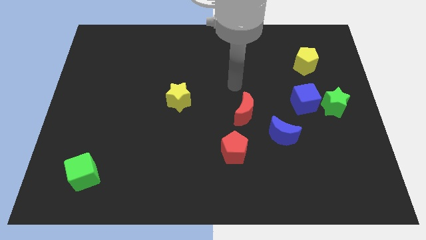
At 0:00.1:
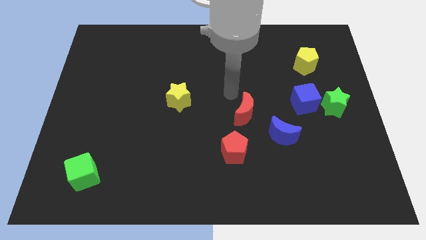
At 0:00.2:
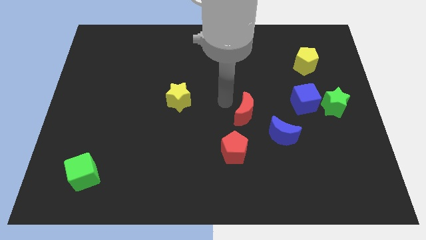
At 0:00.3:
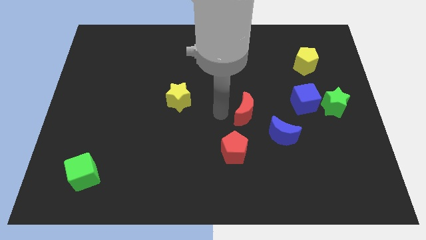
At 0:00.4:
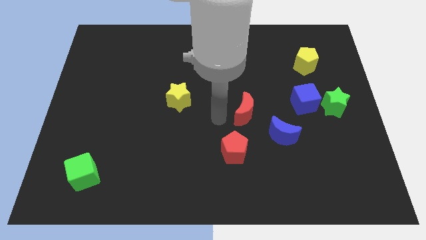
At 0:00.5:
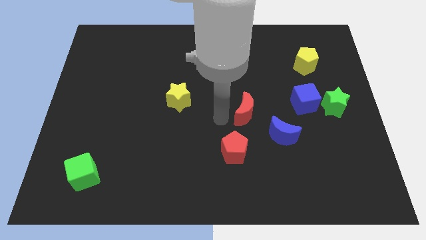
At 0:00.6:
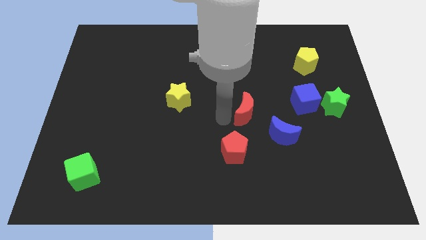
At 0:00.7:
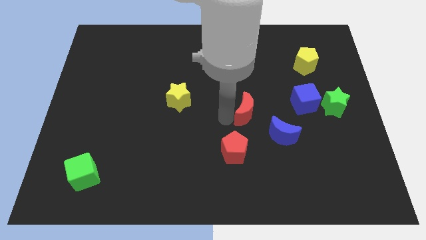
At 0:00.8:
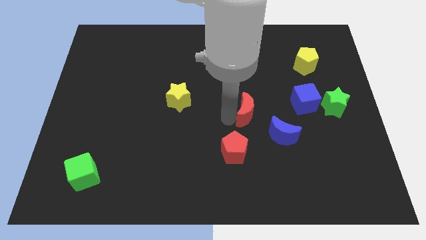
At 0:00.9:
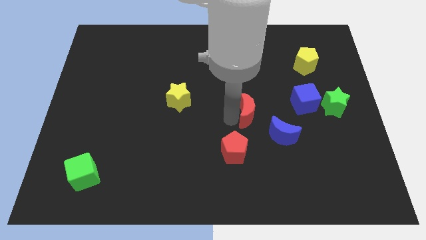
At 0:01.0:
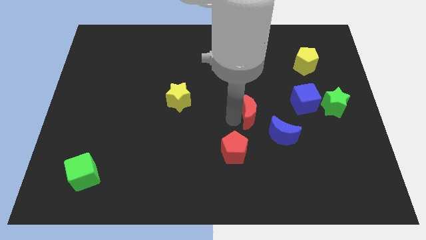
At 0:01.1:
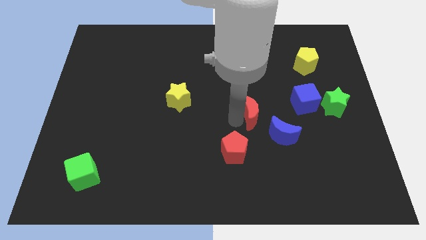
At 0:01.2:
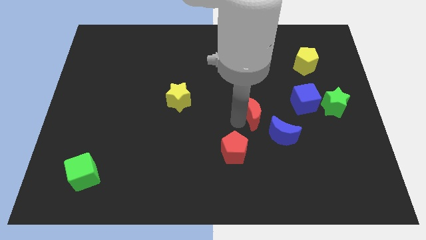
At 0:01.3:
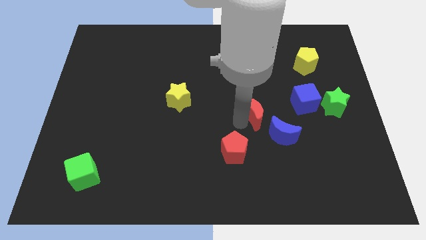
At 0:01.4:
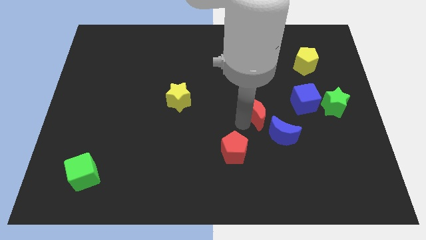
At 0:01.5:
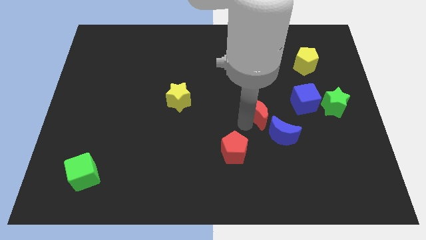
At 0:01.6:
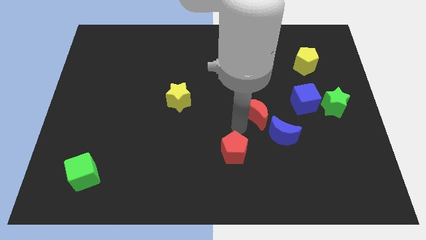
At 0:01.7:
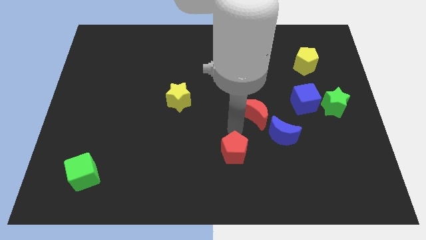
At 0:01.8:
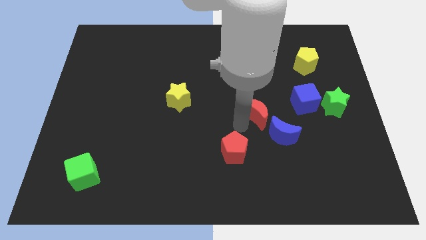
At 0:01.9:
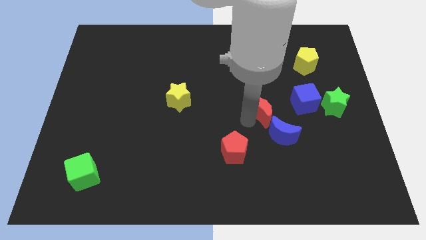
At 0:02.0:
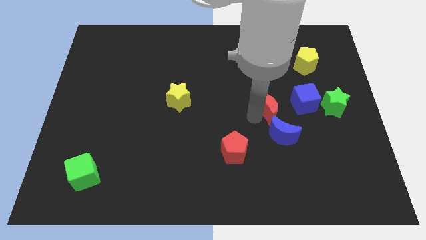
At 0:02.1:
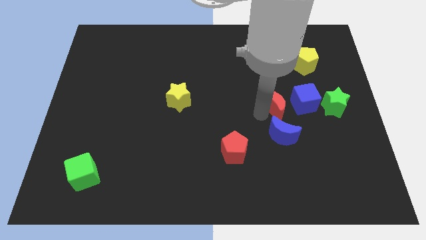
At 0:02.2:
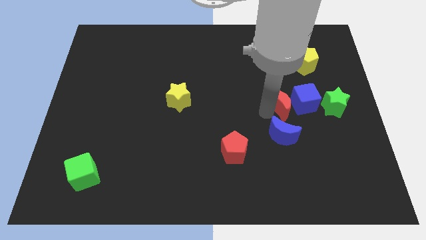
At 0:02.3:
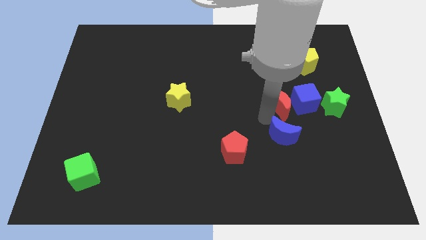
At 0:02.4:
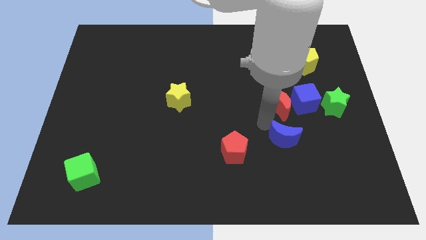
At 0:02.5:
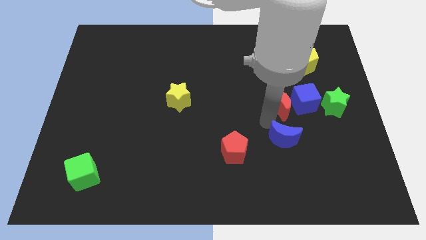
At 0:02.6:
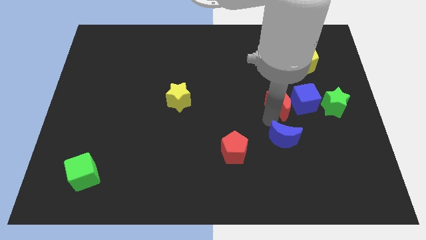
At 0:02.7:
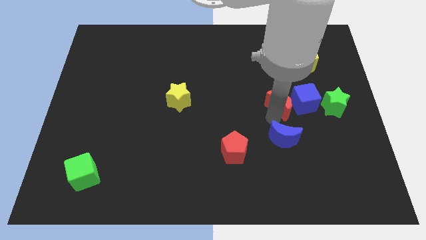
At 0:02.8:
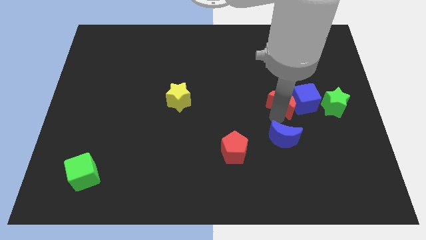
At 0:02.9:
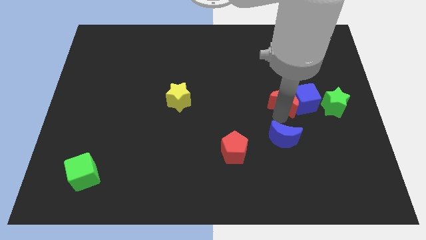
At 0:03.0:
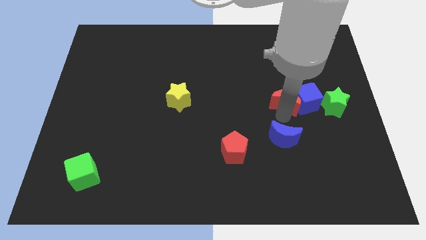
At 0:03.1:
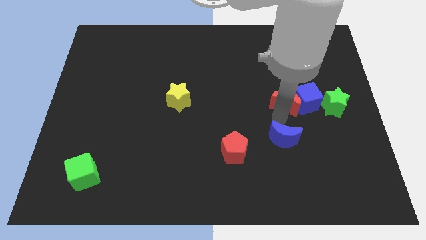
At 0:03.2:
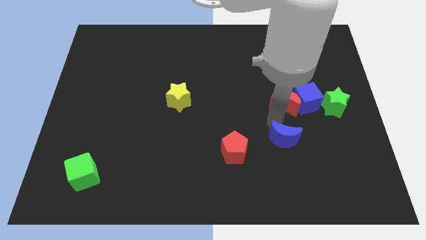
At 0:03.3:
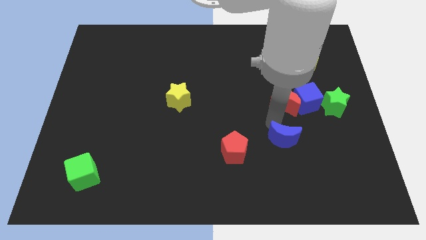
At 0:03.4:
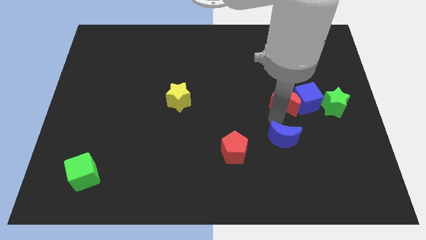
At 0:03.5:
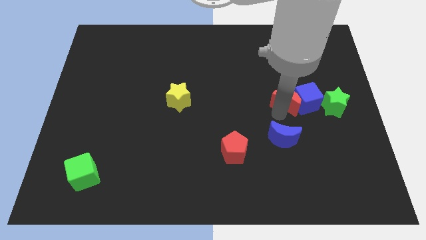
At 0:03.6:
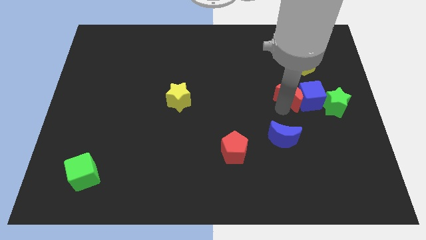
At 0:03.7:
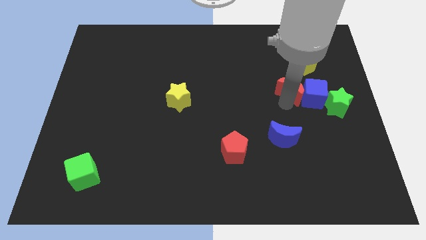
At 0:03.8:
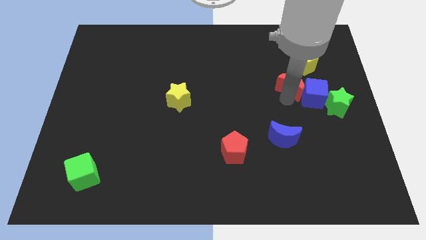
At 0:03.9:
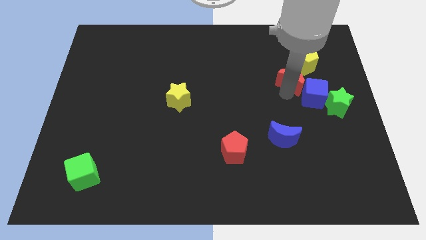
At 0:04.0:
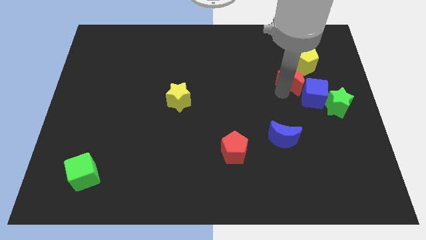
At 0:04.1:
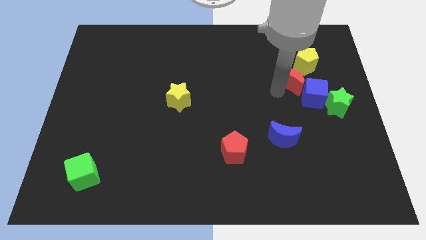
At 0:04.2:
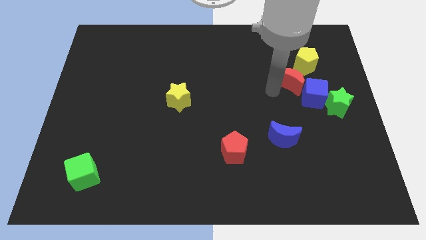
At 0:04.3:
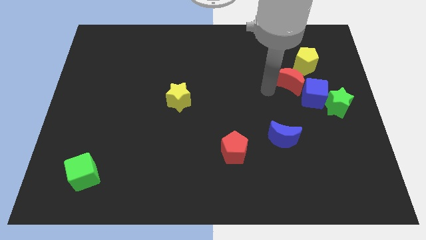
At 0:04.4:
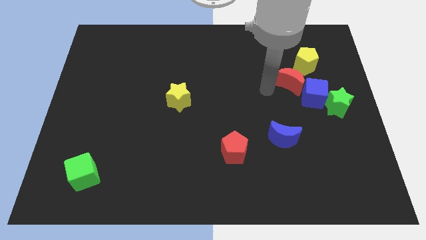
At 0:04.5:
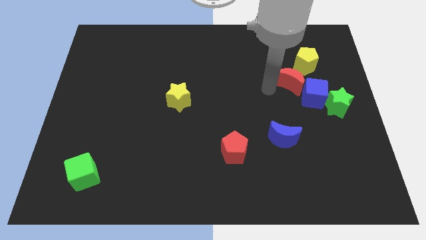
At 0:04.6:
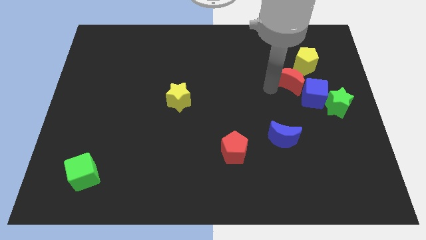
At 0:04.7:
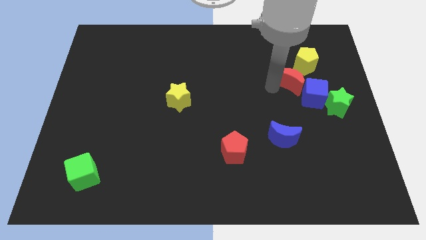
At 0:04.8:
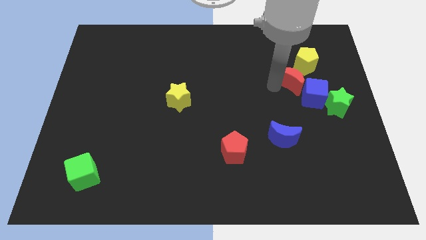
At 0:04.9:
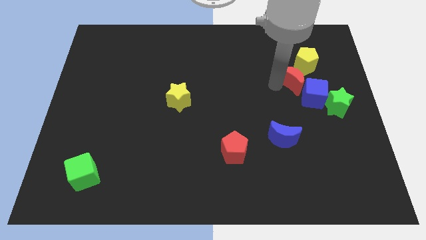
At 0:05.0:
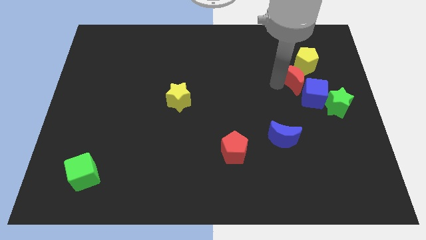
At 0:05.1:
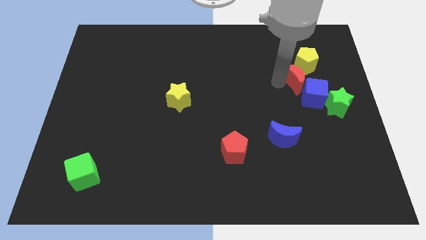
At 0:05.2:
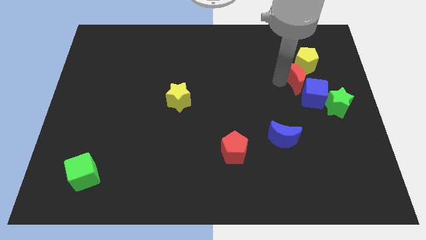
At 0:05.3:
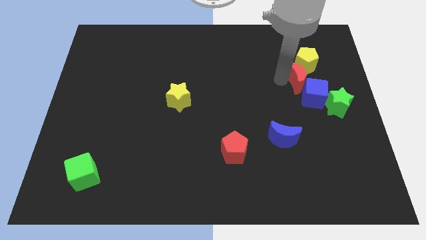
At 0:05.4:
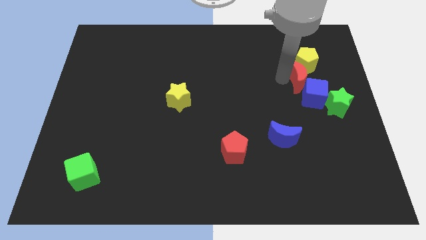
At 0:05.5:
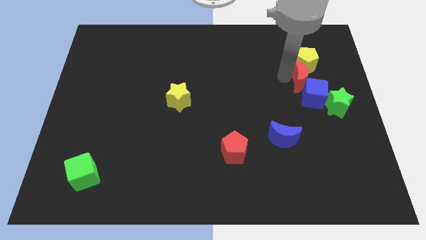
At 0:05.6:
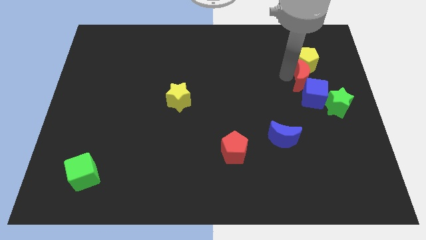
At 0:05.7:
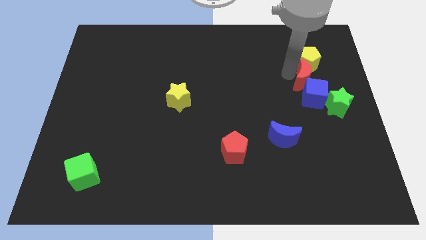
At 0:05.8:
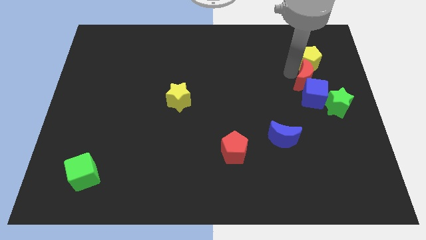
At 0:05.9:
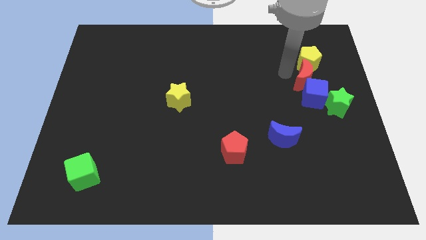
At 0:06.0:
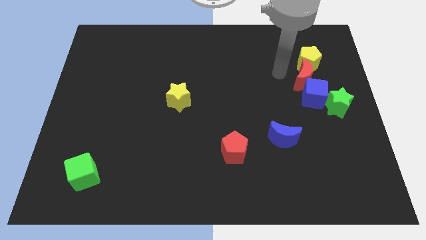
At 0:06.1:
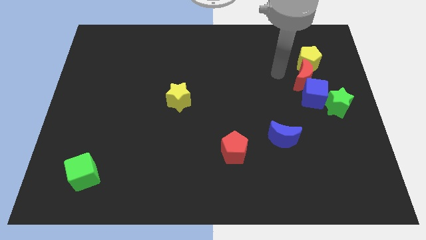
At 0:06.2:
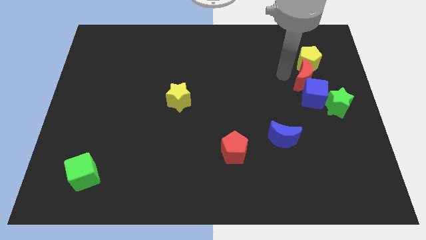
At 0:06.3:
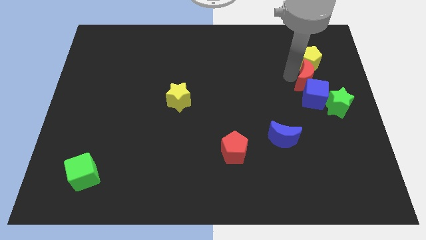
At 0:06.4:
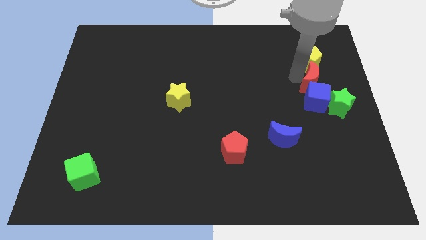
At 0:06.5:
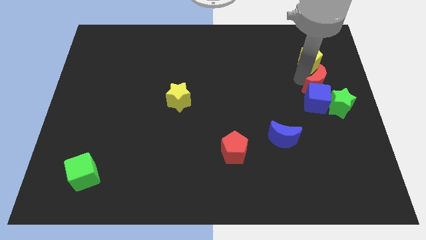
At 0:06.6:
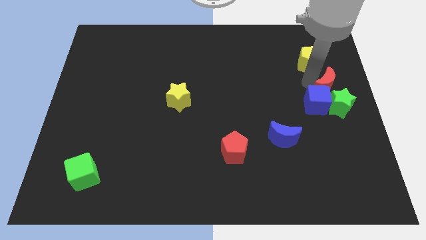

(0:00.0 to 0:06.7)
push the red moon to the right side

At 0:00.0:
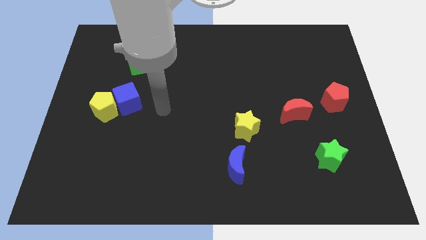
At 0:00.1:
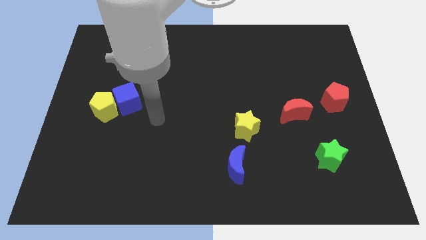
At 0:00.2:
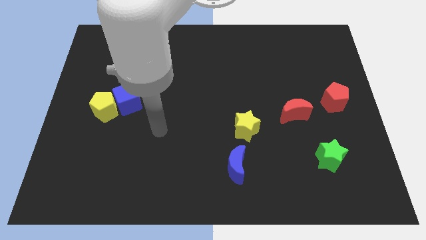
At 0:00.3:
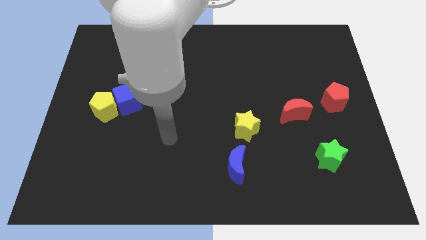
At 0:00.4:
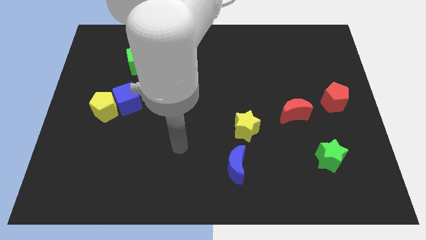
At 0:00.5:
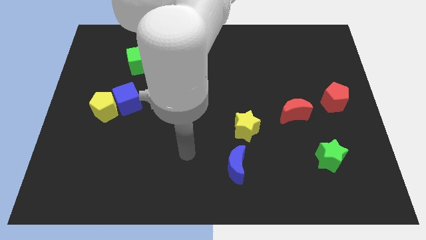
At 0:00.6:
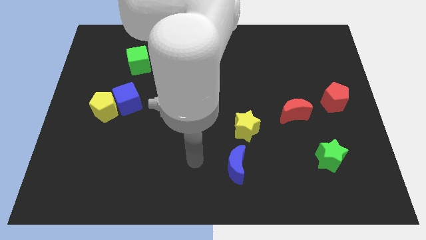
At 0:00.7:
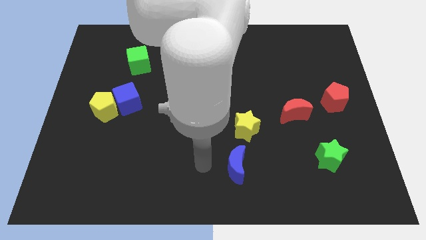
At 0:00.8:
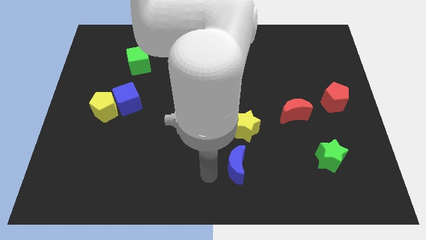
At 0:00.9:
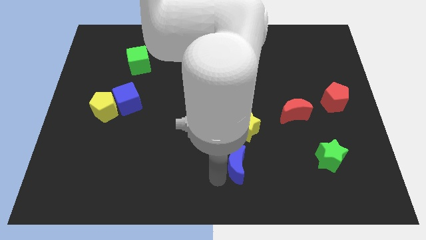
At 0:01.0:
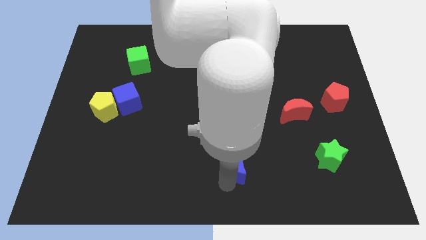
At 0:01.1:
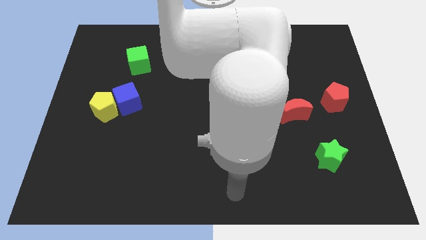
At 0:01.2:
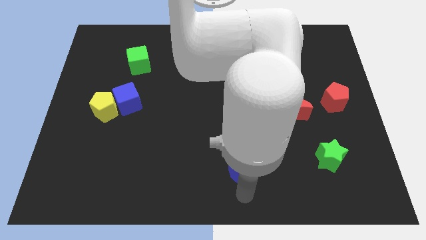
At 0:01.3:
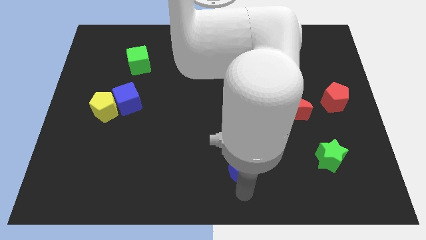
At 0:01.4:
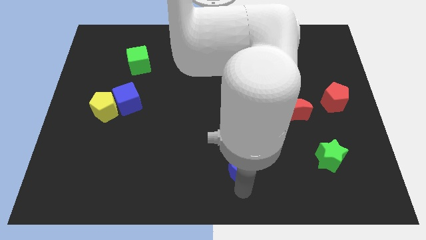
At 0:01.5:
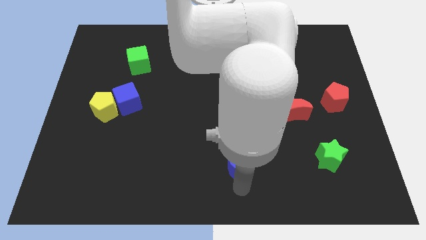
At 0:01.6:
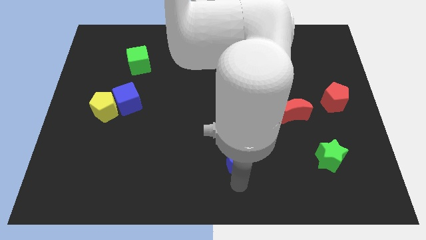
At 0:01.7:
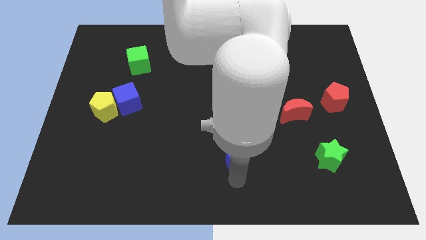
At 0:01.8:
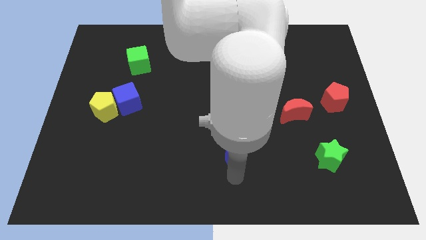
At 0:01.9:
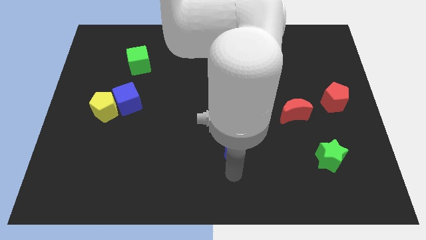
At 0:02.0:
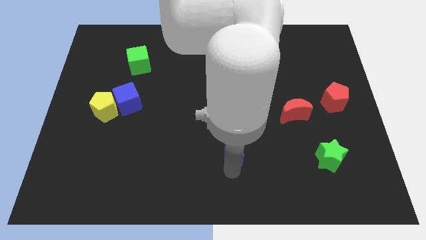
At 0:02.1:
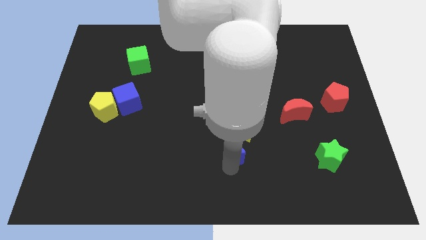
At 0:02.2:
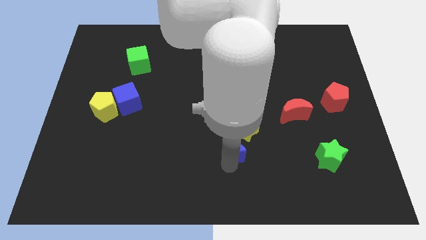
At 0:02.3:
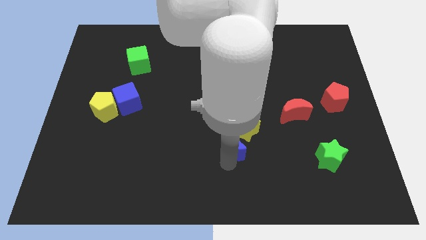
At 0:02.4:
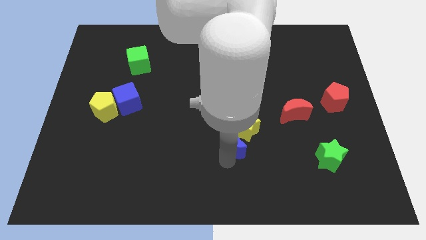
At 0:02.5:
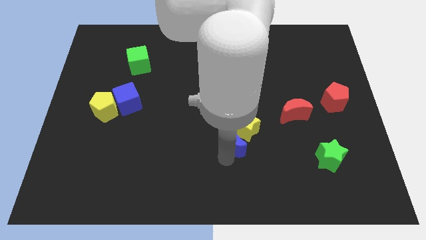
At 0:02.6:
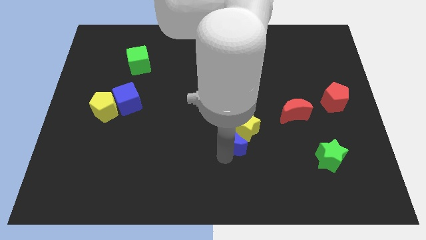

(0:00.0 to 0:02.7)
slide the blue moon to the center of the board
